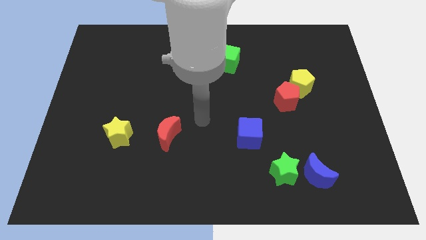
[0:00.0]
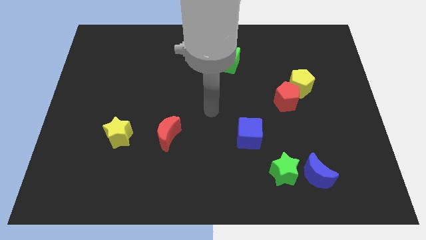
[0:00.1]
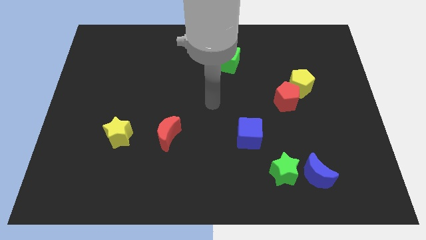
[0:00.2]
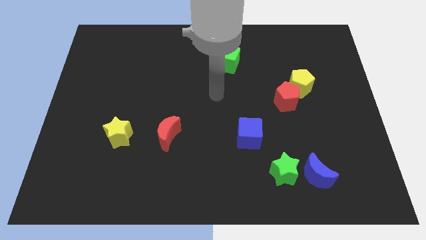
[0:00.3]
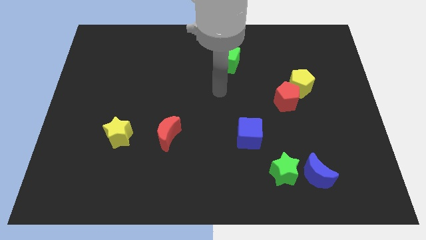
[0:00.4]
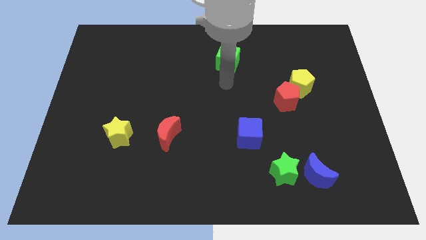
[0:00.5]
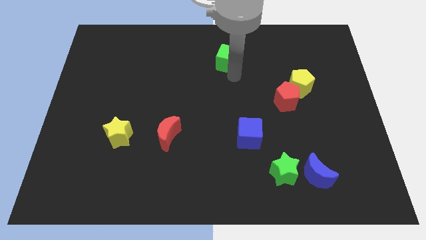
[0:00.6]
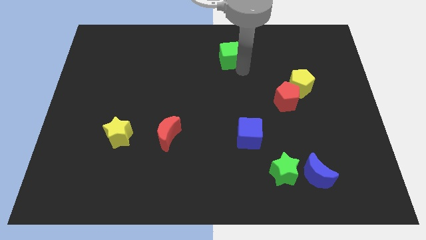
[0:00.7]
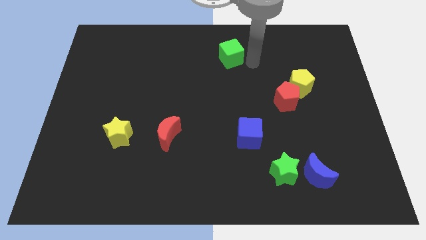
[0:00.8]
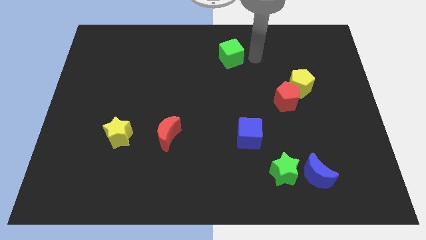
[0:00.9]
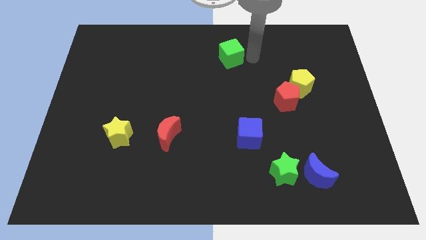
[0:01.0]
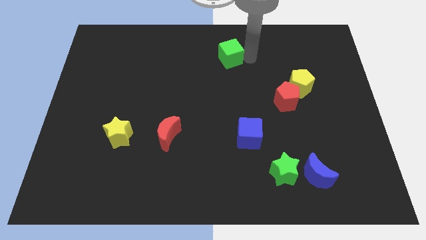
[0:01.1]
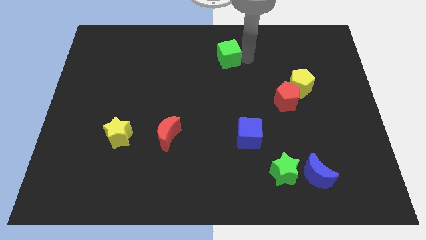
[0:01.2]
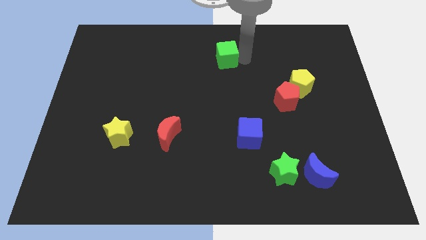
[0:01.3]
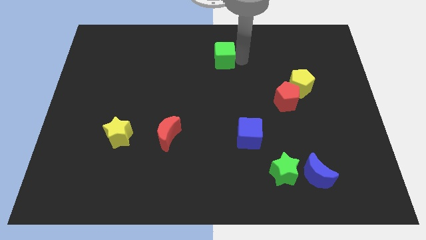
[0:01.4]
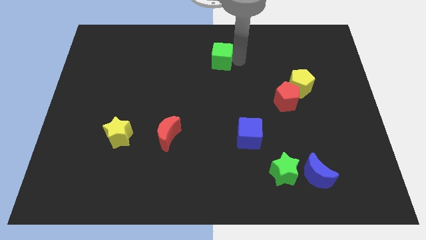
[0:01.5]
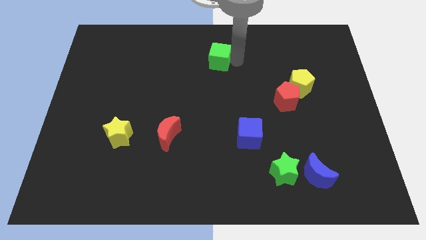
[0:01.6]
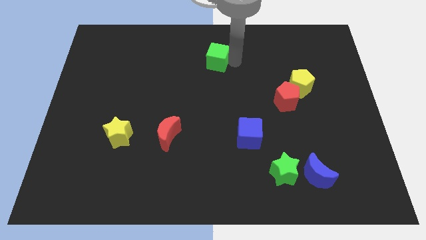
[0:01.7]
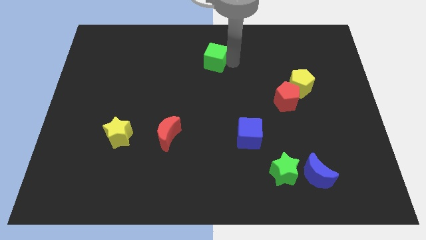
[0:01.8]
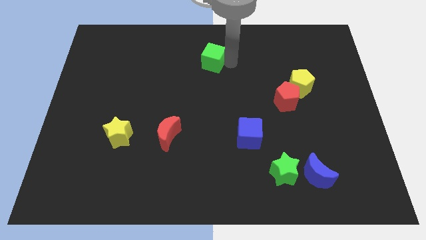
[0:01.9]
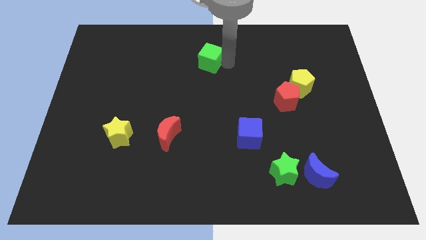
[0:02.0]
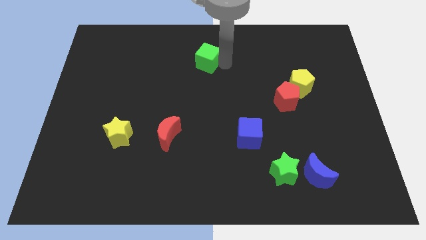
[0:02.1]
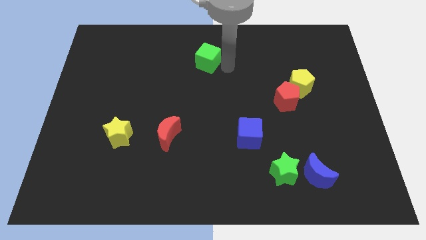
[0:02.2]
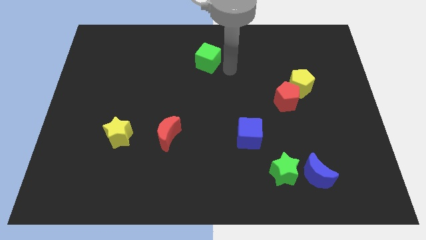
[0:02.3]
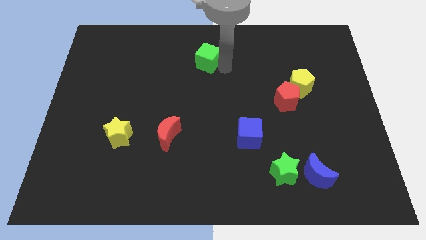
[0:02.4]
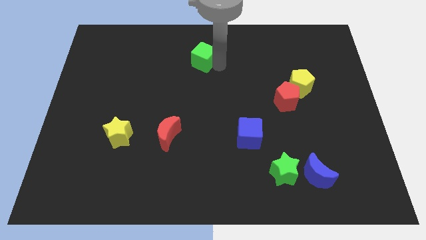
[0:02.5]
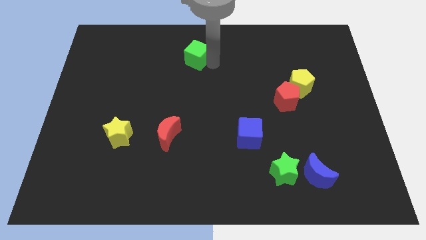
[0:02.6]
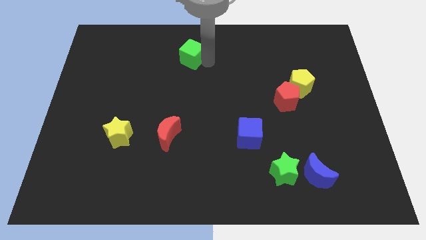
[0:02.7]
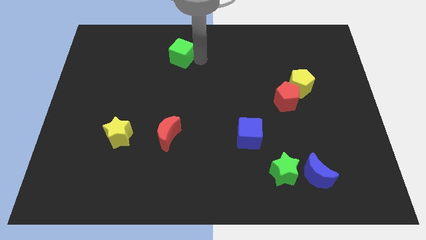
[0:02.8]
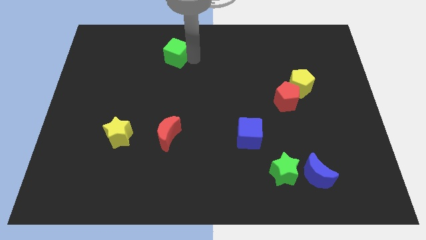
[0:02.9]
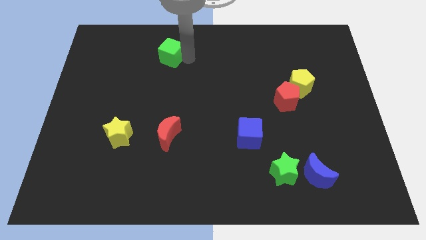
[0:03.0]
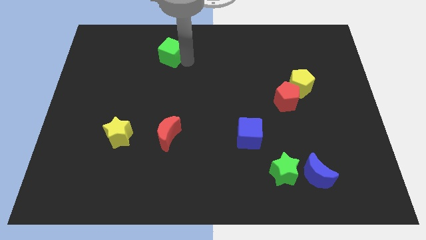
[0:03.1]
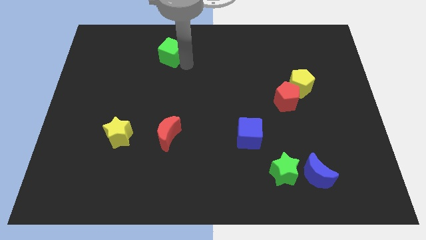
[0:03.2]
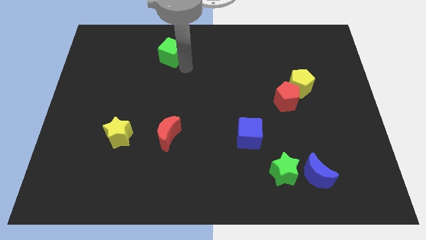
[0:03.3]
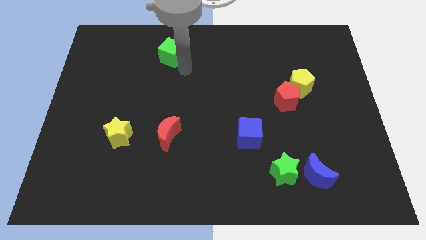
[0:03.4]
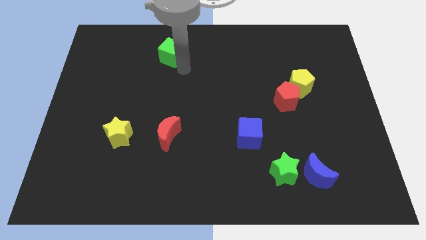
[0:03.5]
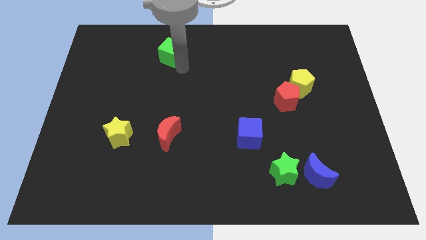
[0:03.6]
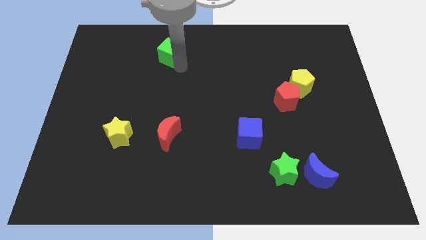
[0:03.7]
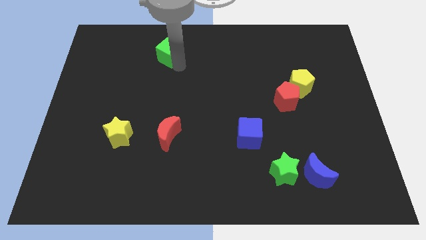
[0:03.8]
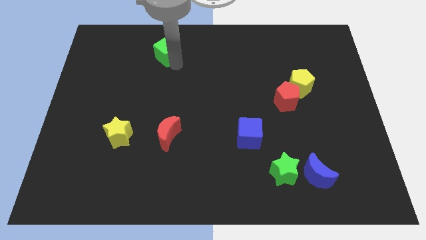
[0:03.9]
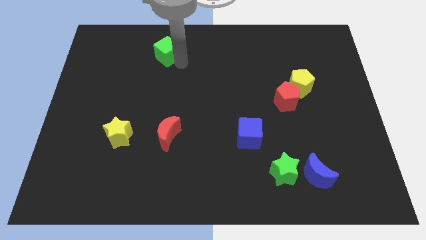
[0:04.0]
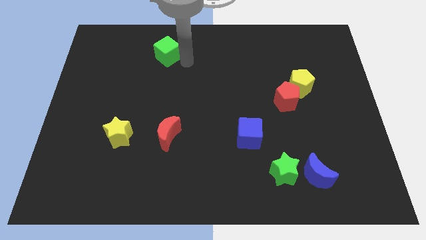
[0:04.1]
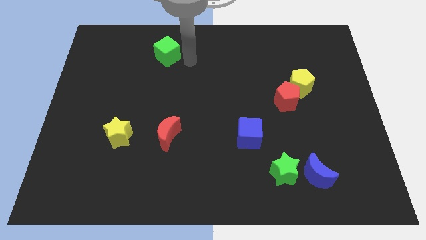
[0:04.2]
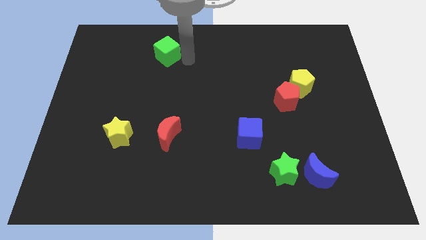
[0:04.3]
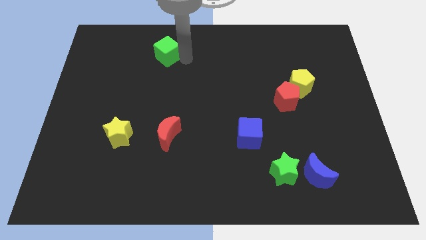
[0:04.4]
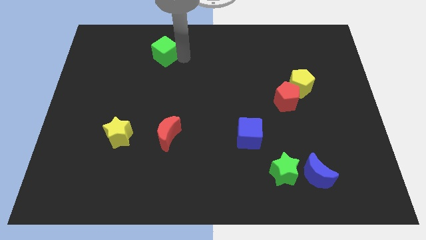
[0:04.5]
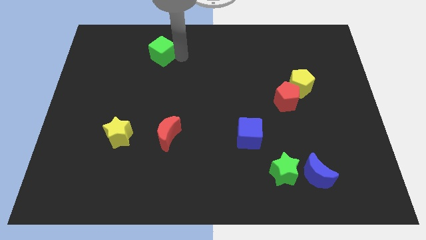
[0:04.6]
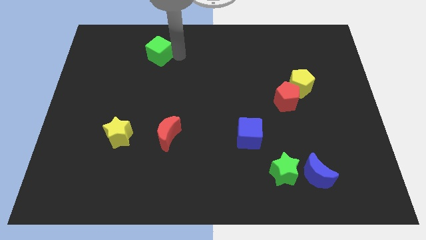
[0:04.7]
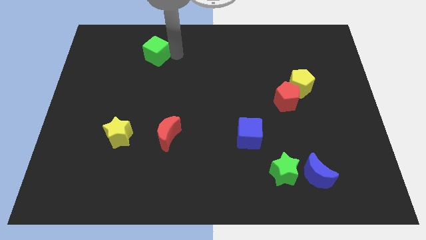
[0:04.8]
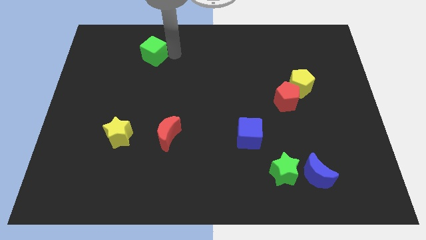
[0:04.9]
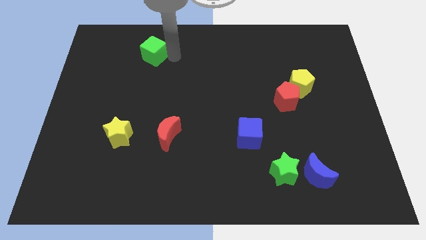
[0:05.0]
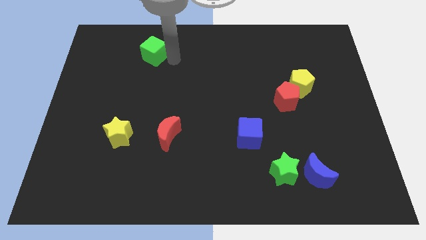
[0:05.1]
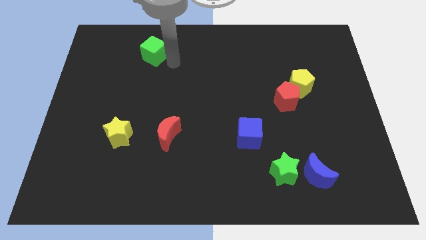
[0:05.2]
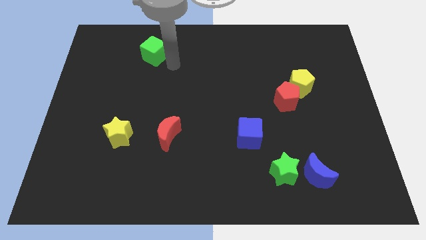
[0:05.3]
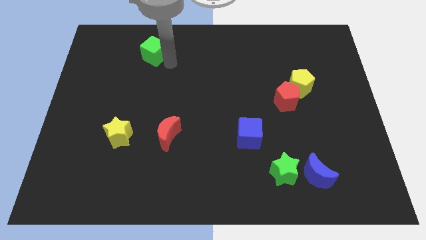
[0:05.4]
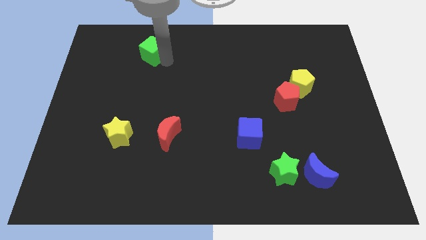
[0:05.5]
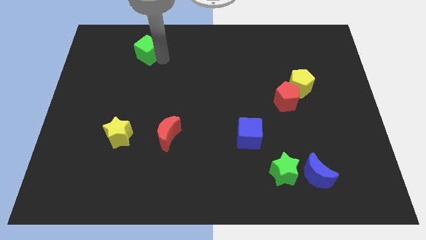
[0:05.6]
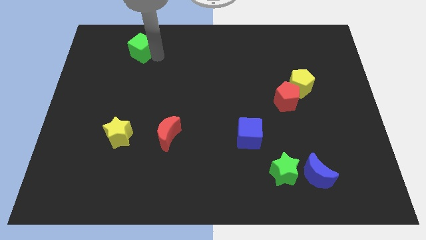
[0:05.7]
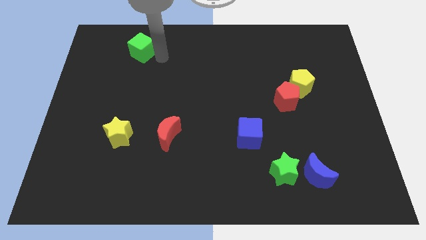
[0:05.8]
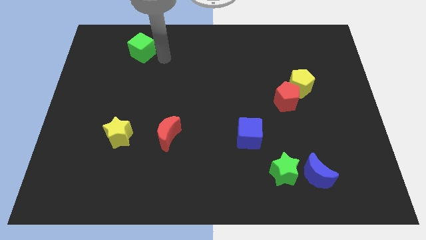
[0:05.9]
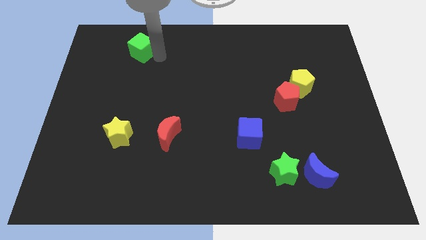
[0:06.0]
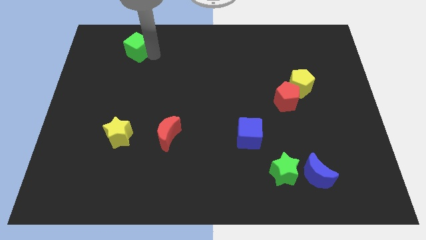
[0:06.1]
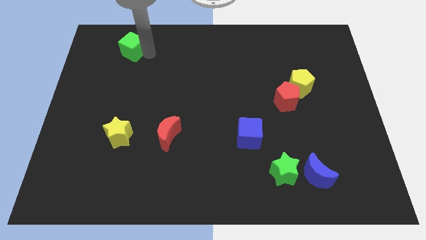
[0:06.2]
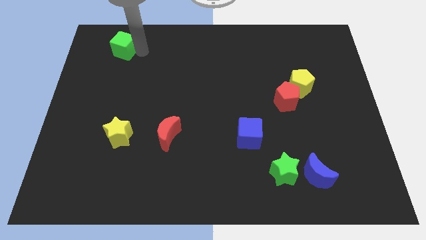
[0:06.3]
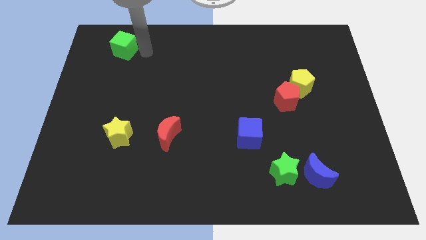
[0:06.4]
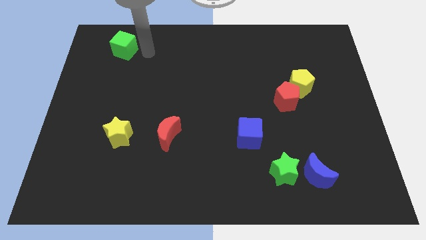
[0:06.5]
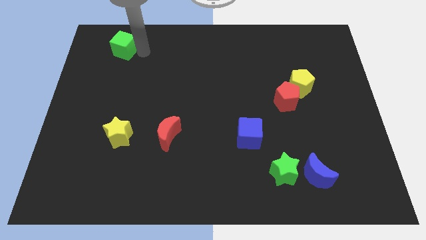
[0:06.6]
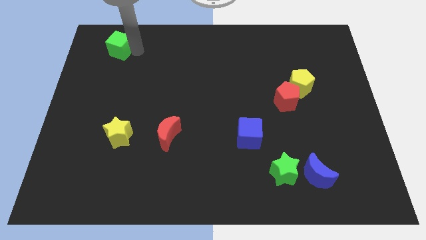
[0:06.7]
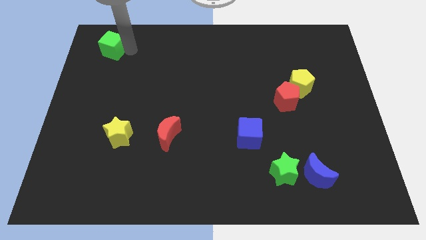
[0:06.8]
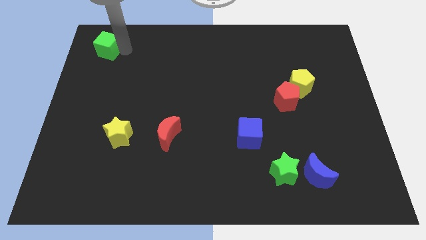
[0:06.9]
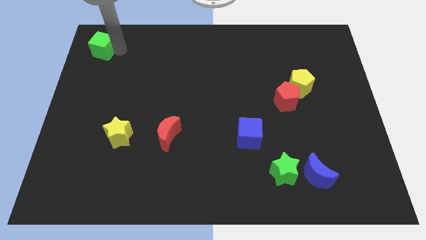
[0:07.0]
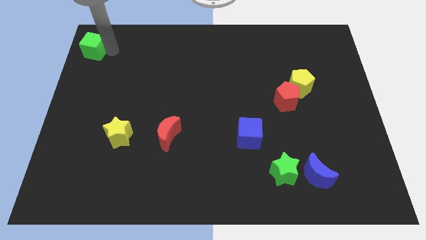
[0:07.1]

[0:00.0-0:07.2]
push the green cube to the top left corner
